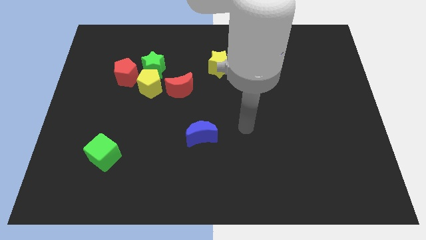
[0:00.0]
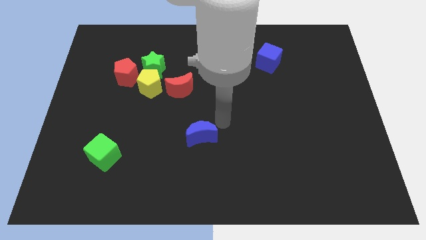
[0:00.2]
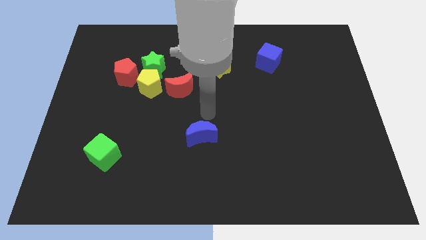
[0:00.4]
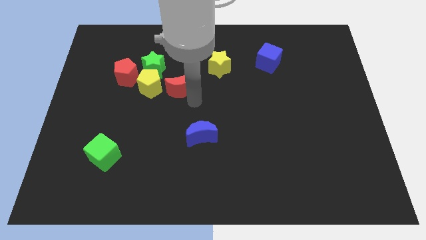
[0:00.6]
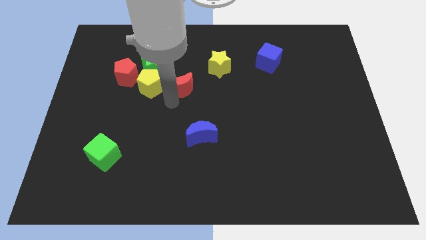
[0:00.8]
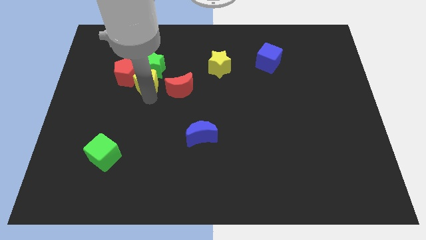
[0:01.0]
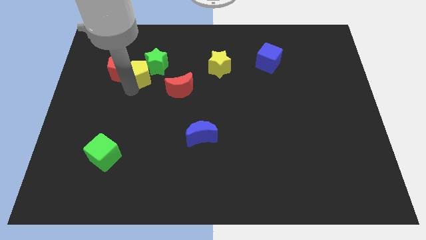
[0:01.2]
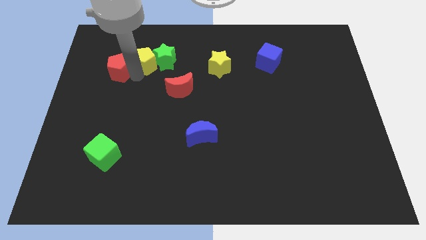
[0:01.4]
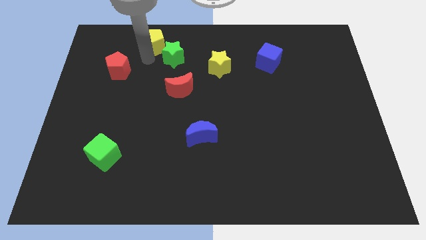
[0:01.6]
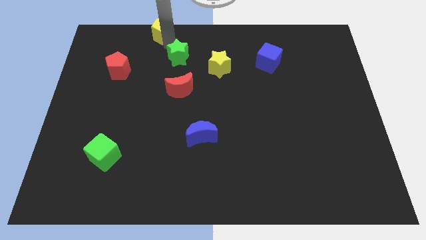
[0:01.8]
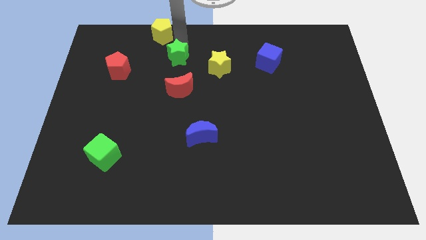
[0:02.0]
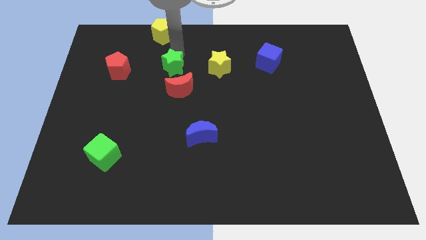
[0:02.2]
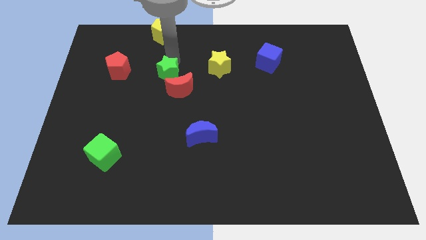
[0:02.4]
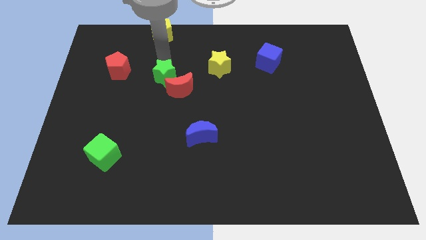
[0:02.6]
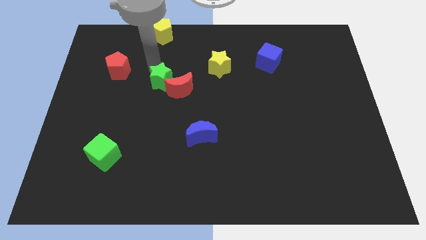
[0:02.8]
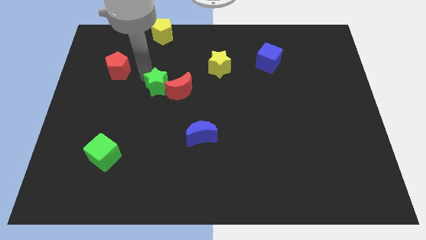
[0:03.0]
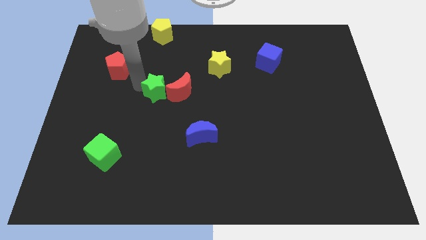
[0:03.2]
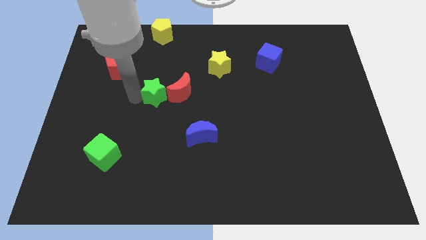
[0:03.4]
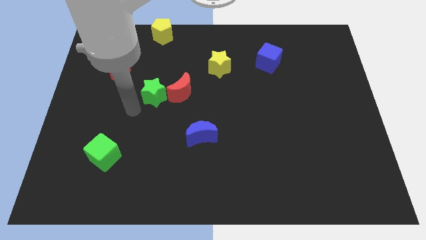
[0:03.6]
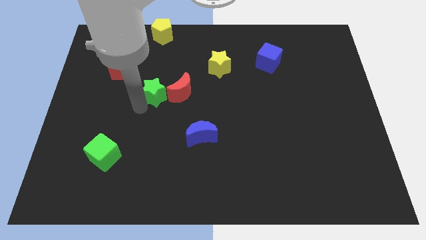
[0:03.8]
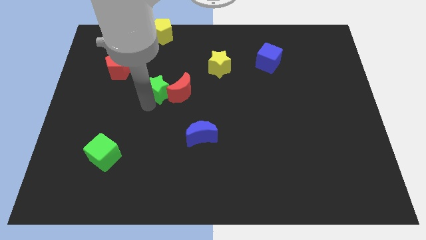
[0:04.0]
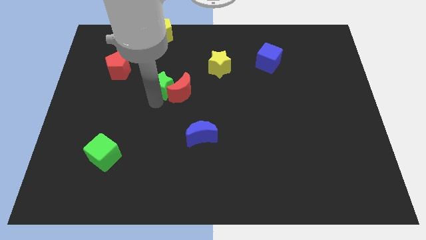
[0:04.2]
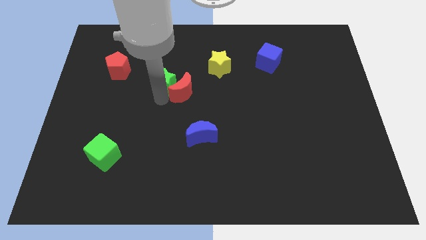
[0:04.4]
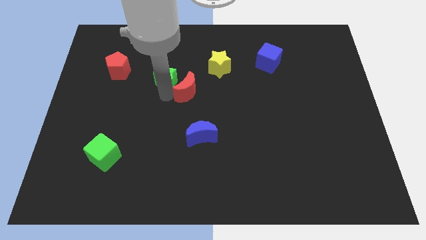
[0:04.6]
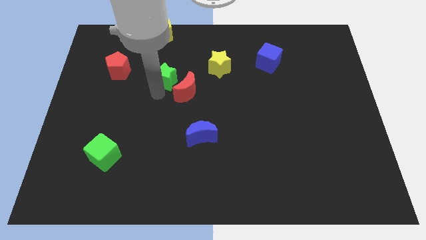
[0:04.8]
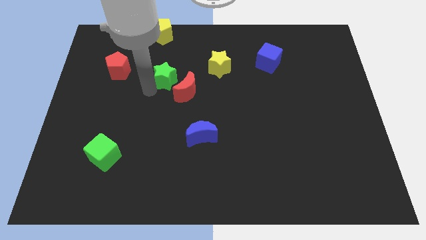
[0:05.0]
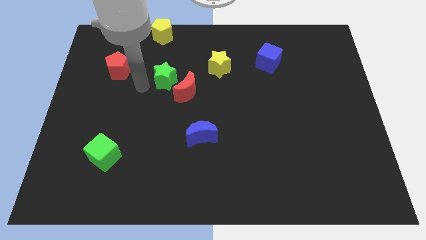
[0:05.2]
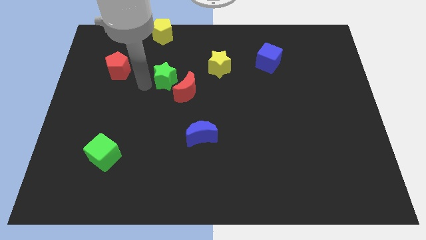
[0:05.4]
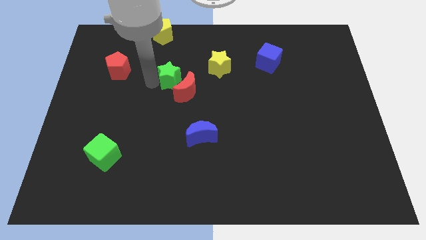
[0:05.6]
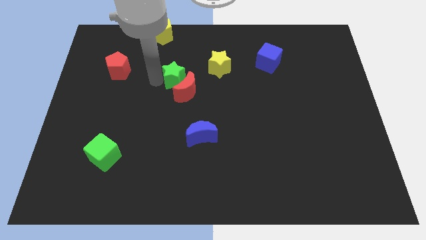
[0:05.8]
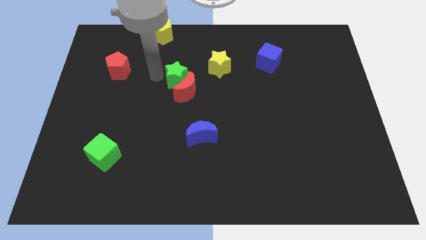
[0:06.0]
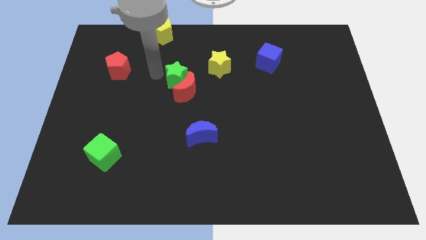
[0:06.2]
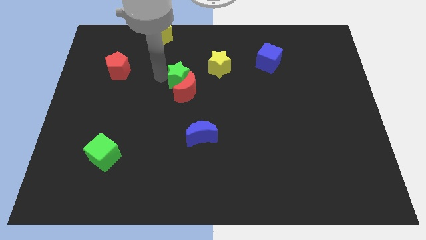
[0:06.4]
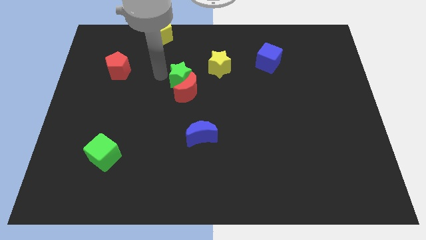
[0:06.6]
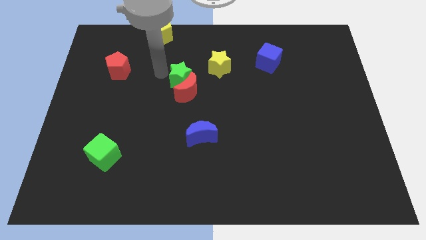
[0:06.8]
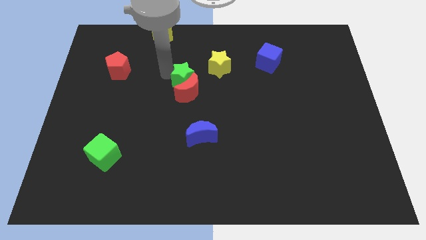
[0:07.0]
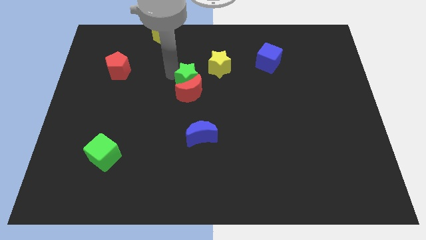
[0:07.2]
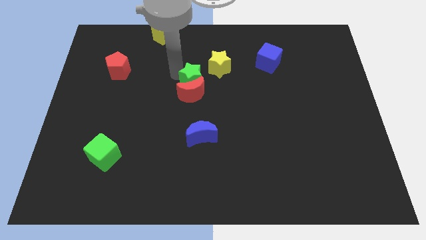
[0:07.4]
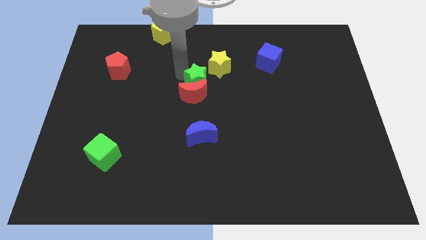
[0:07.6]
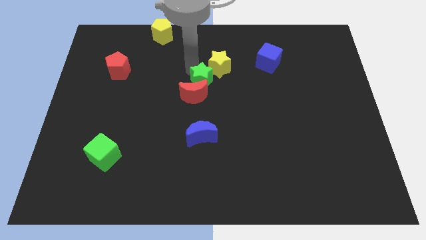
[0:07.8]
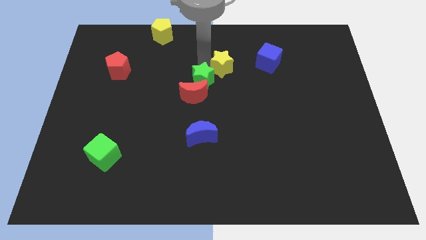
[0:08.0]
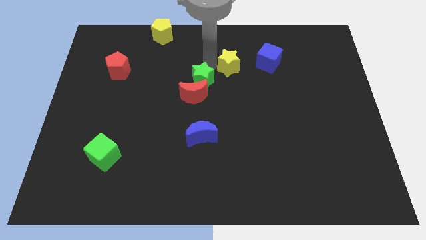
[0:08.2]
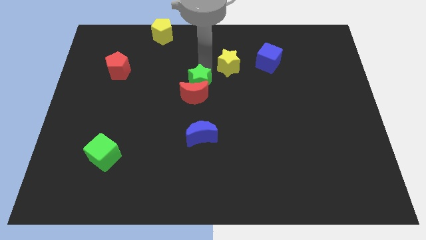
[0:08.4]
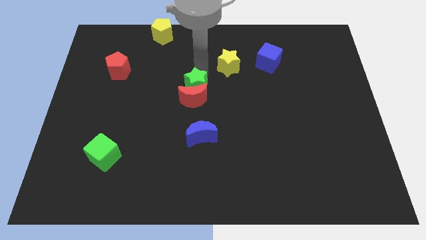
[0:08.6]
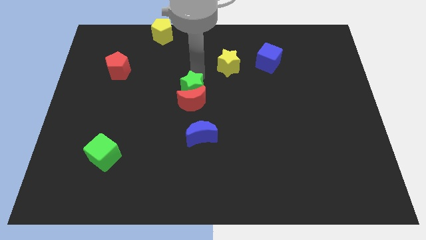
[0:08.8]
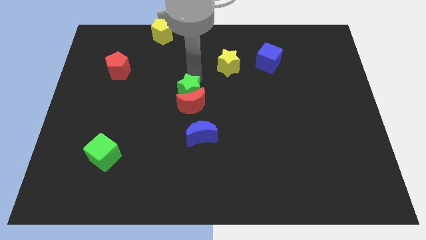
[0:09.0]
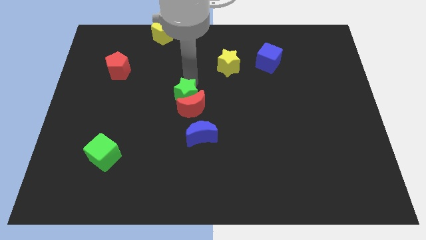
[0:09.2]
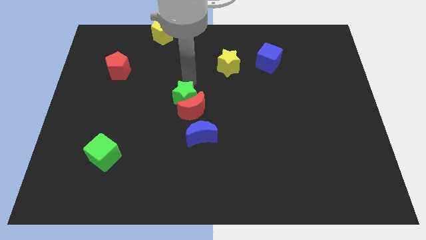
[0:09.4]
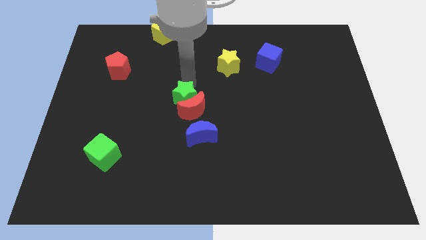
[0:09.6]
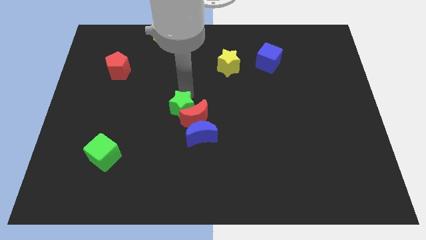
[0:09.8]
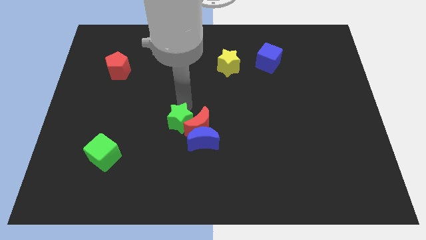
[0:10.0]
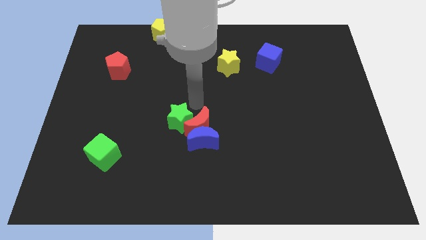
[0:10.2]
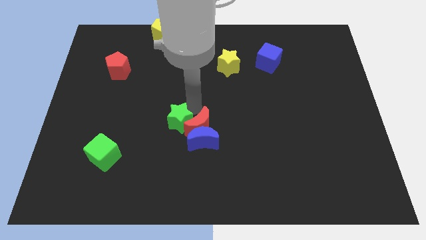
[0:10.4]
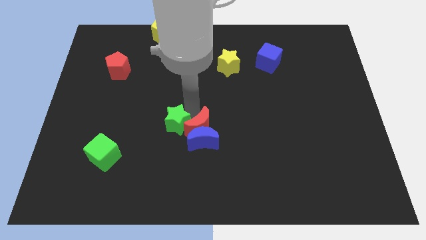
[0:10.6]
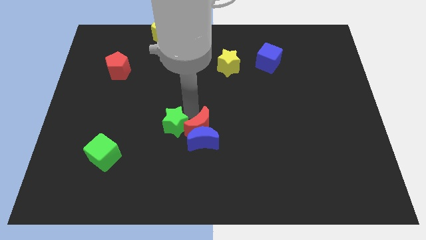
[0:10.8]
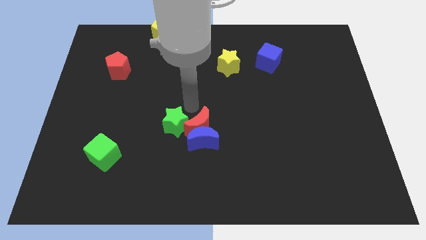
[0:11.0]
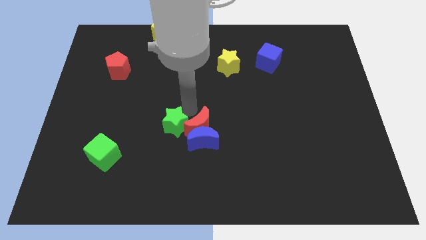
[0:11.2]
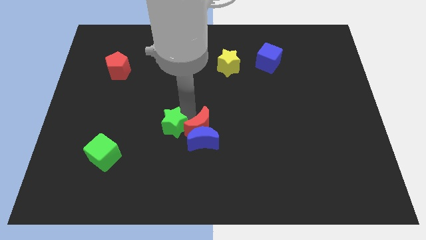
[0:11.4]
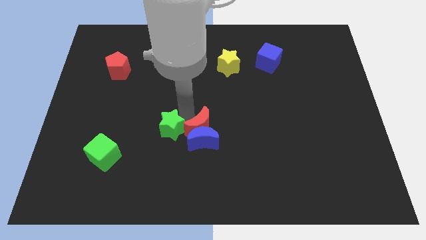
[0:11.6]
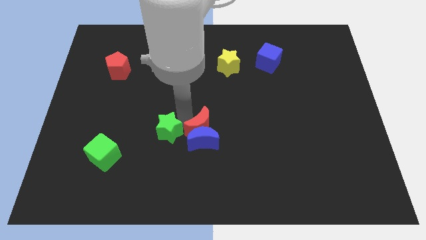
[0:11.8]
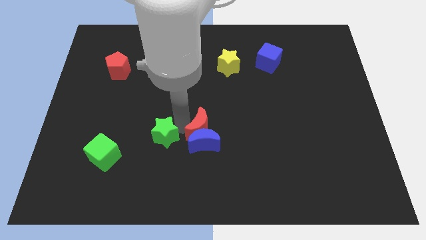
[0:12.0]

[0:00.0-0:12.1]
slide the green star to the right side of the green cube

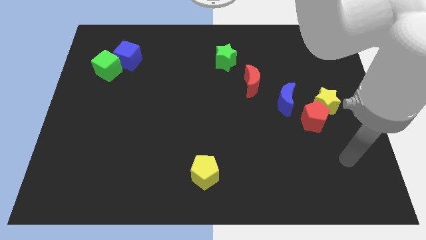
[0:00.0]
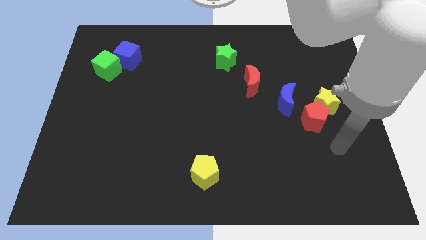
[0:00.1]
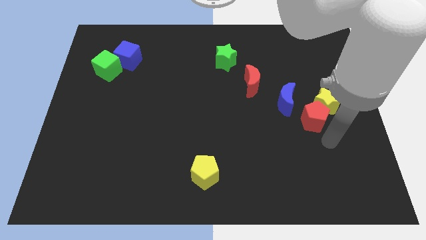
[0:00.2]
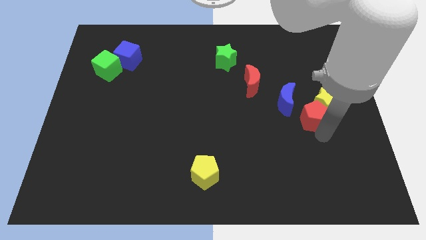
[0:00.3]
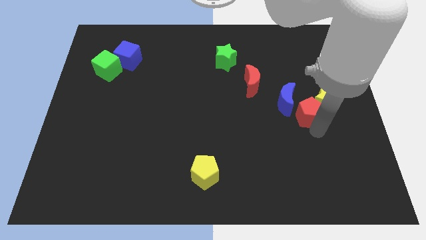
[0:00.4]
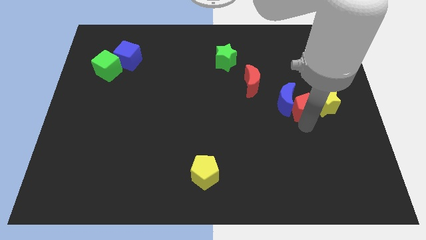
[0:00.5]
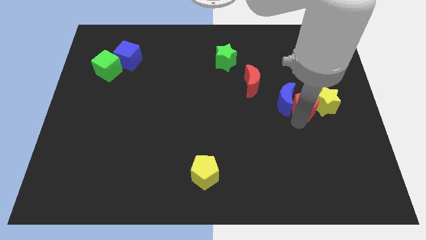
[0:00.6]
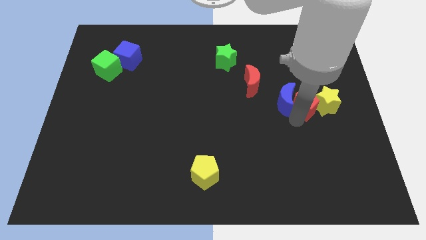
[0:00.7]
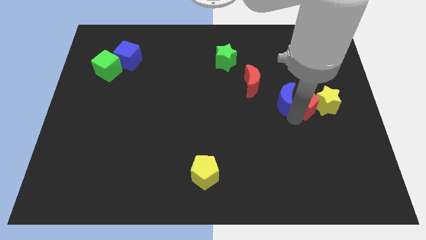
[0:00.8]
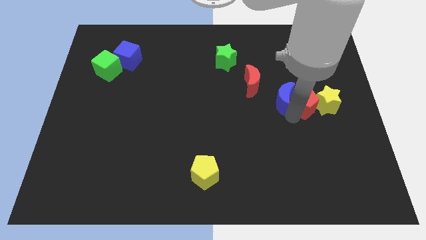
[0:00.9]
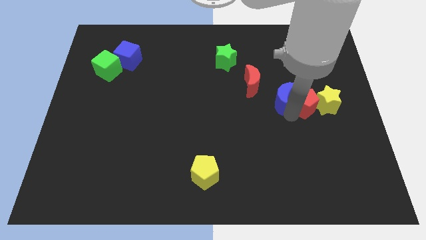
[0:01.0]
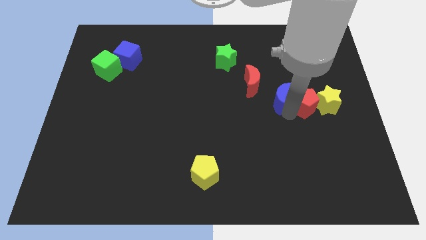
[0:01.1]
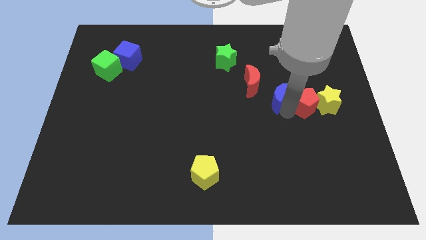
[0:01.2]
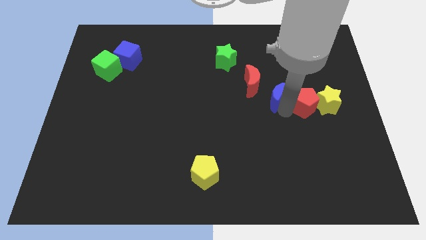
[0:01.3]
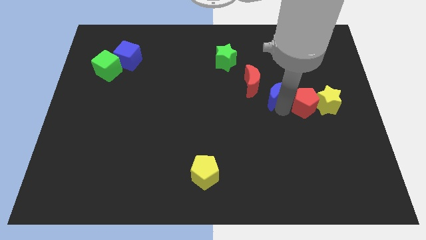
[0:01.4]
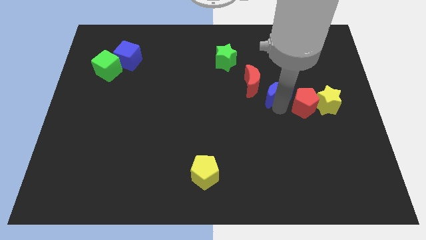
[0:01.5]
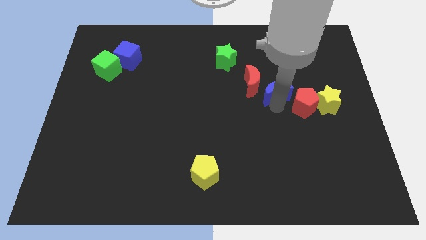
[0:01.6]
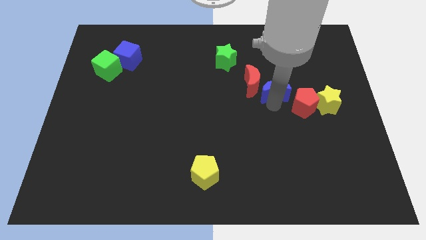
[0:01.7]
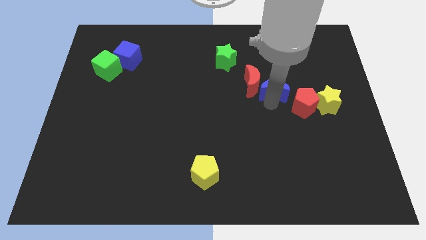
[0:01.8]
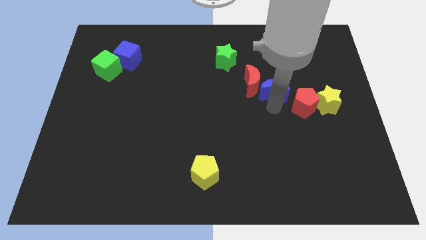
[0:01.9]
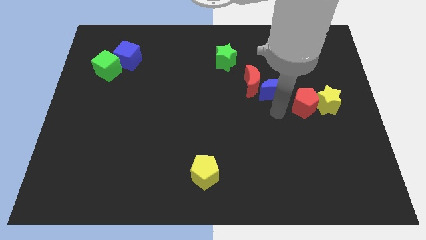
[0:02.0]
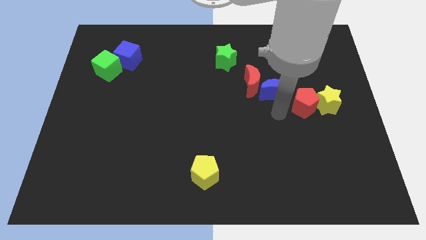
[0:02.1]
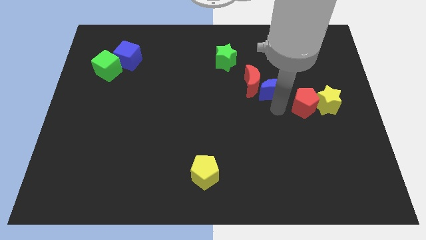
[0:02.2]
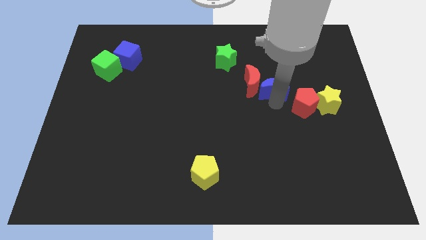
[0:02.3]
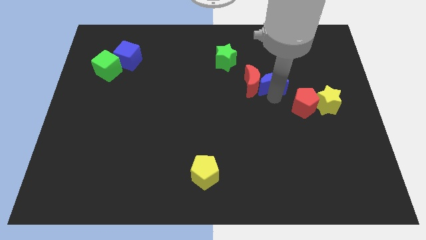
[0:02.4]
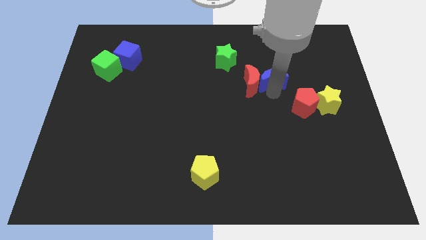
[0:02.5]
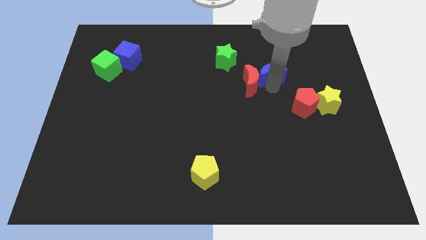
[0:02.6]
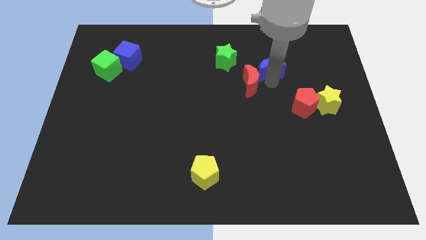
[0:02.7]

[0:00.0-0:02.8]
push the blue moon just right of the green star
